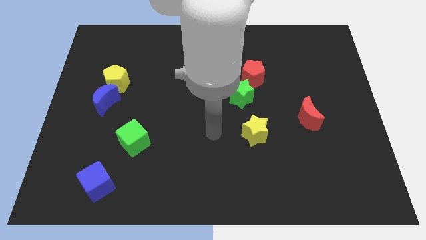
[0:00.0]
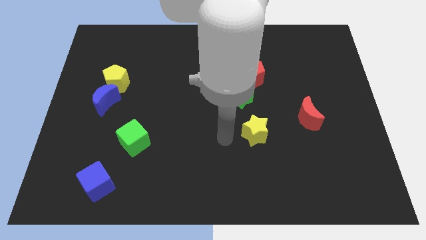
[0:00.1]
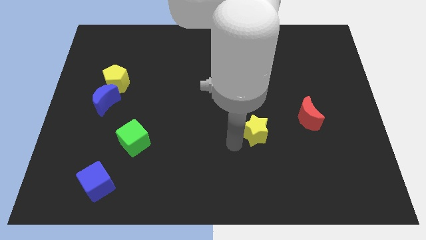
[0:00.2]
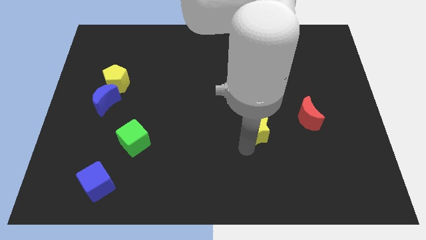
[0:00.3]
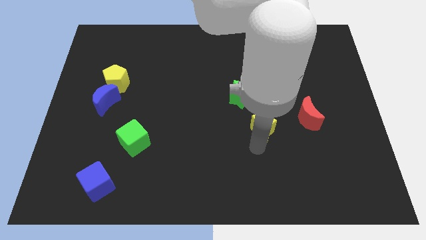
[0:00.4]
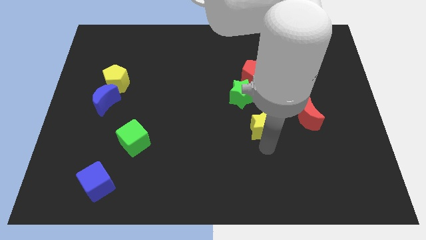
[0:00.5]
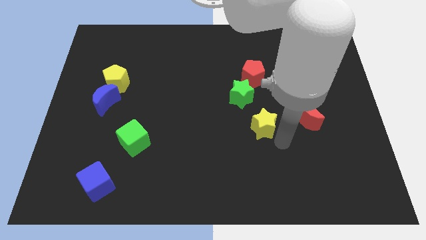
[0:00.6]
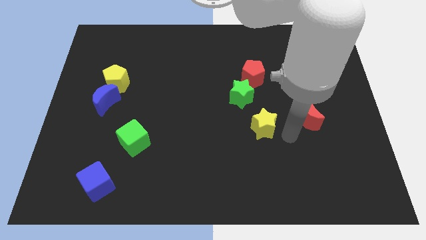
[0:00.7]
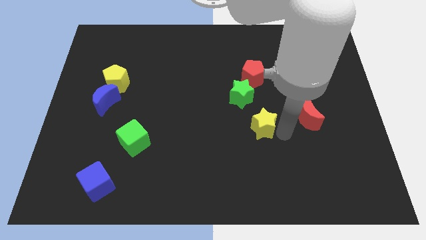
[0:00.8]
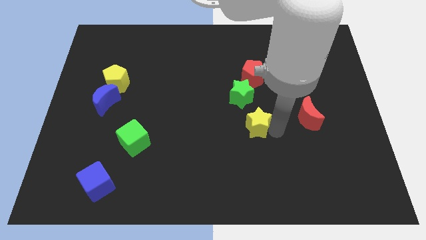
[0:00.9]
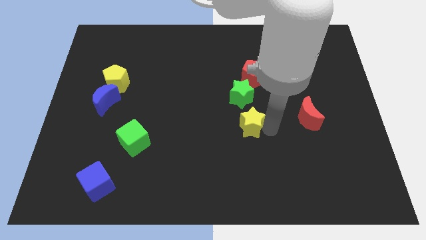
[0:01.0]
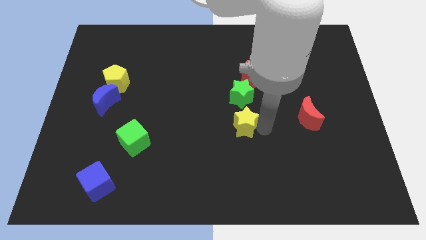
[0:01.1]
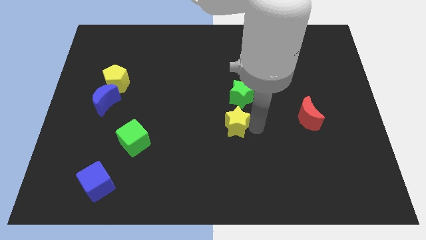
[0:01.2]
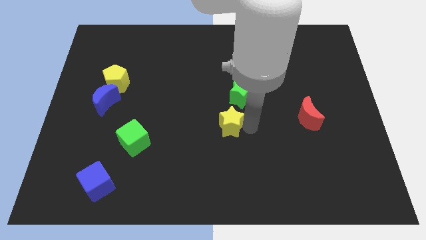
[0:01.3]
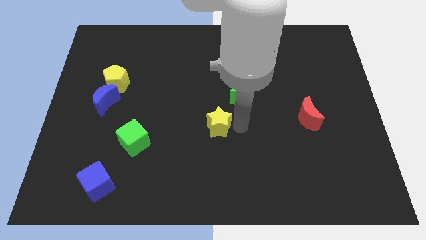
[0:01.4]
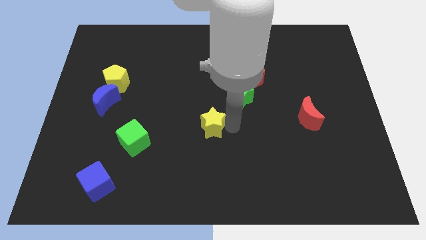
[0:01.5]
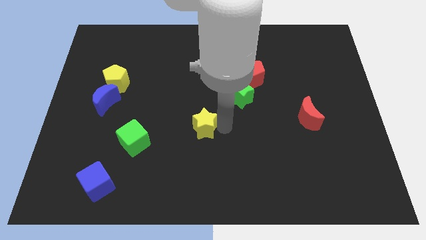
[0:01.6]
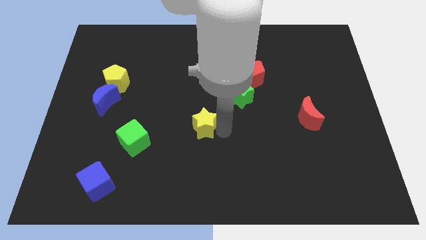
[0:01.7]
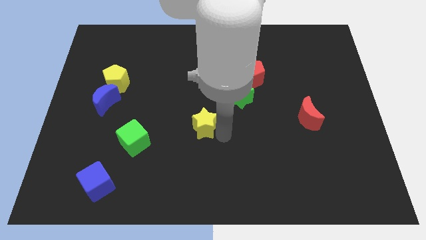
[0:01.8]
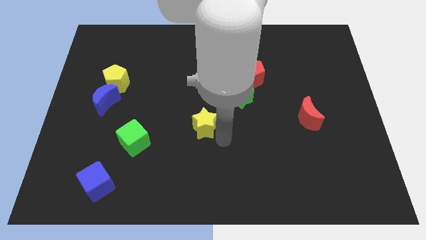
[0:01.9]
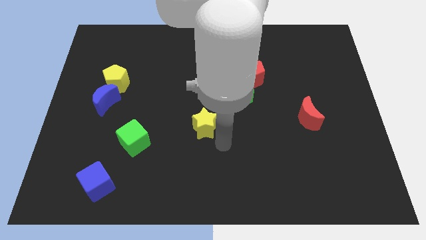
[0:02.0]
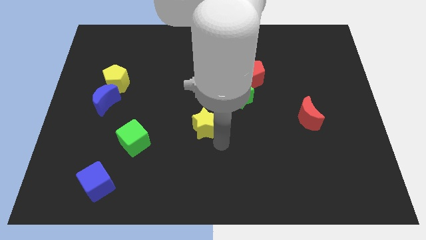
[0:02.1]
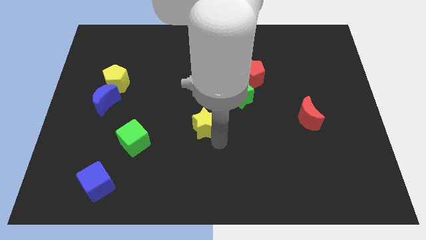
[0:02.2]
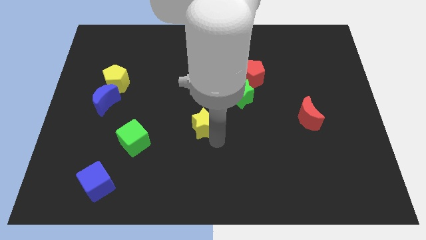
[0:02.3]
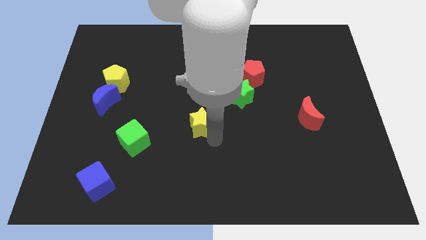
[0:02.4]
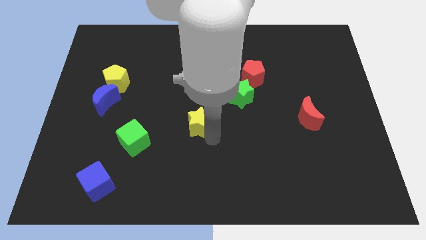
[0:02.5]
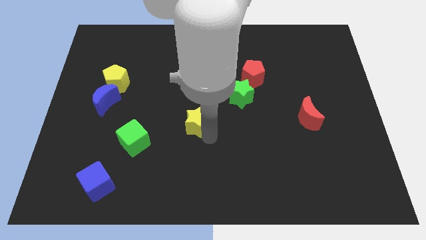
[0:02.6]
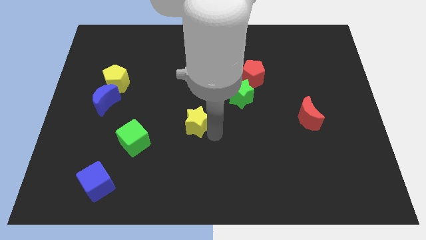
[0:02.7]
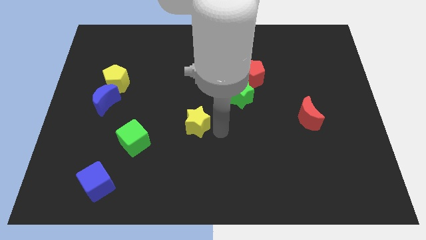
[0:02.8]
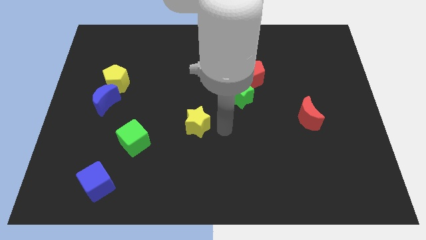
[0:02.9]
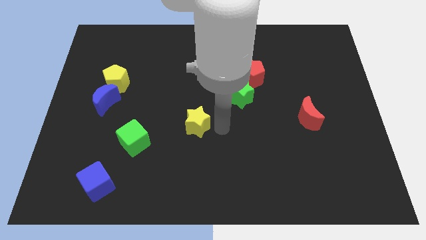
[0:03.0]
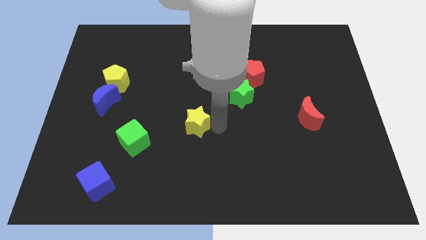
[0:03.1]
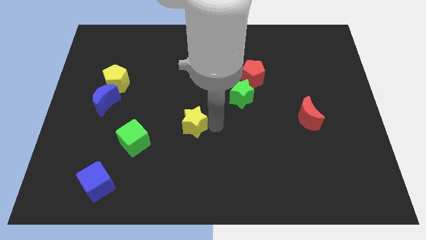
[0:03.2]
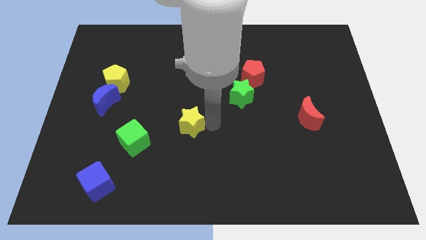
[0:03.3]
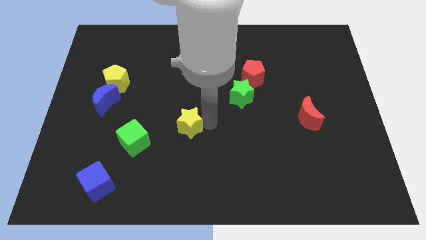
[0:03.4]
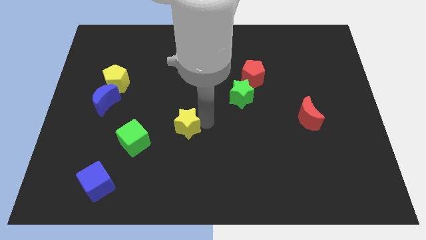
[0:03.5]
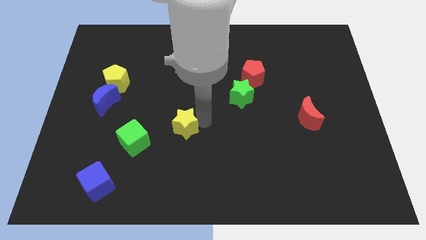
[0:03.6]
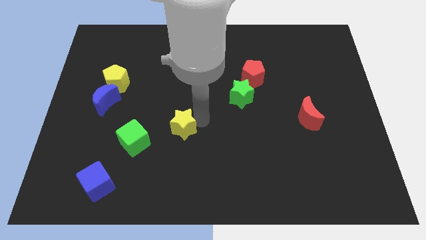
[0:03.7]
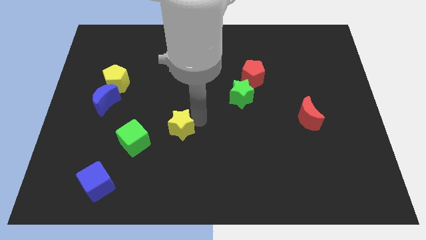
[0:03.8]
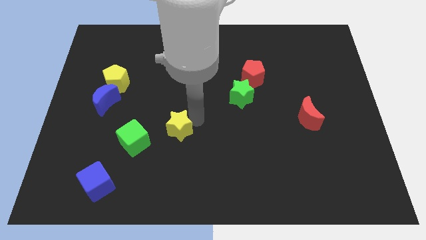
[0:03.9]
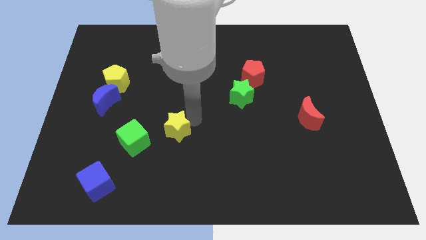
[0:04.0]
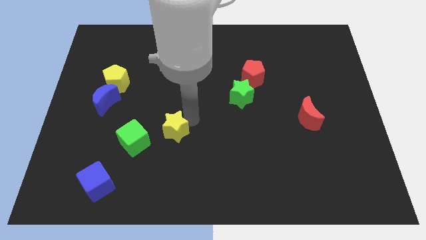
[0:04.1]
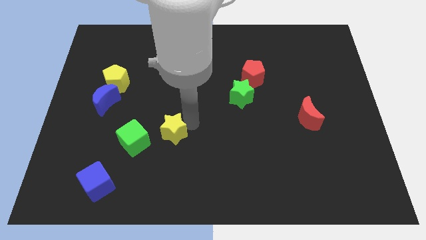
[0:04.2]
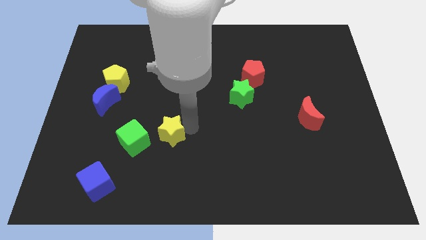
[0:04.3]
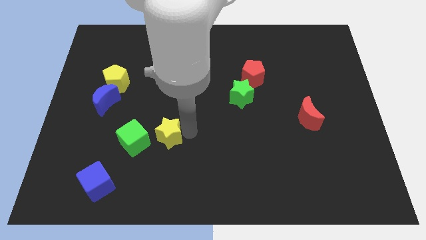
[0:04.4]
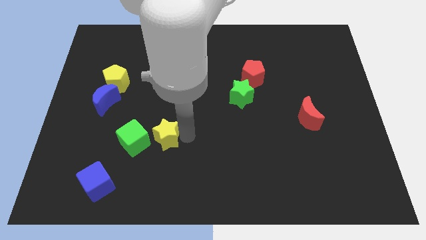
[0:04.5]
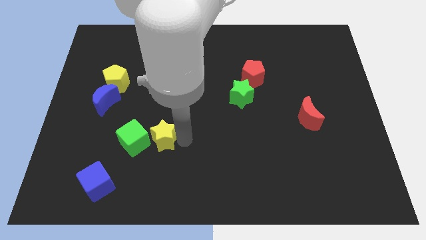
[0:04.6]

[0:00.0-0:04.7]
slide the yellow star to the left

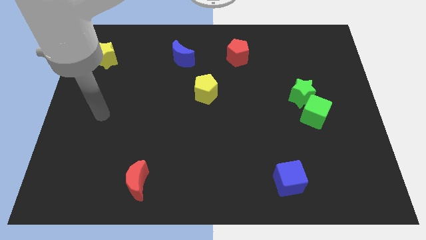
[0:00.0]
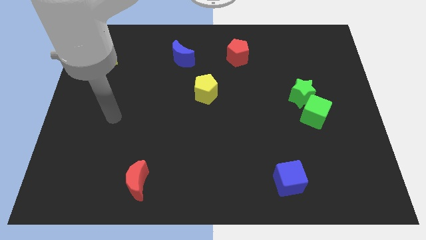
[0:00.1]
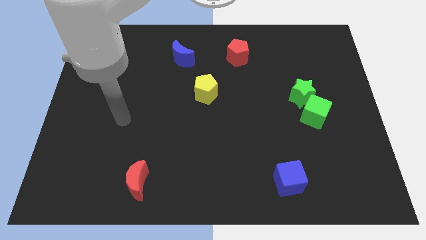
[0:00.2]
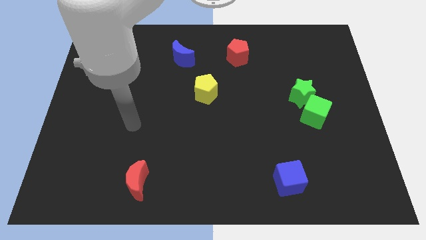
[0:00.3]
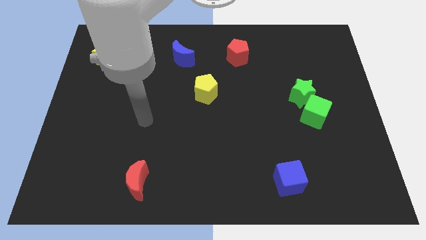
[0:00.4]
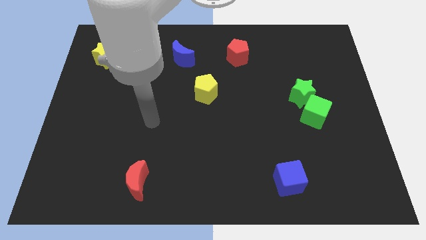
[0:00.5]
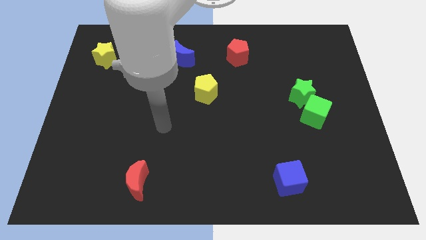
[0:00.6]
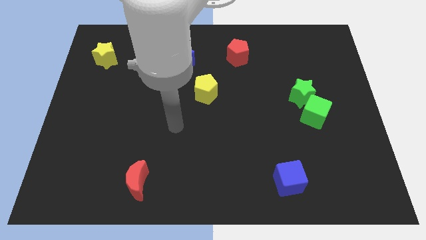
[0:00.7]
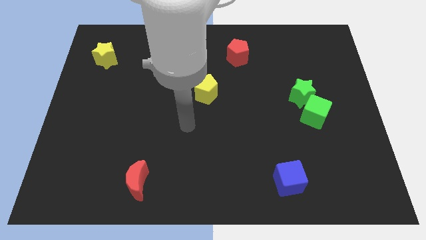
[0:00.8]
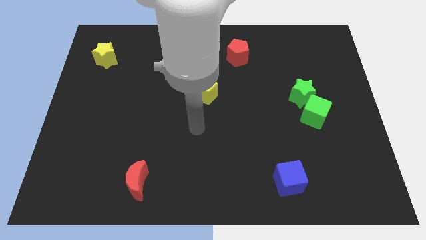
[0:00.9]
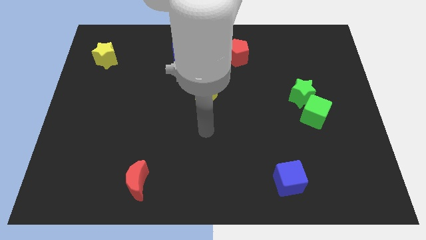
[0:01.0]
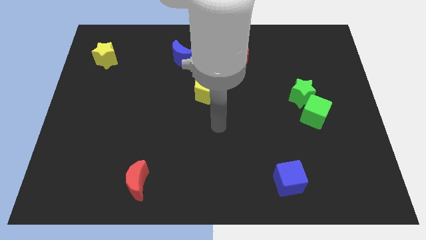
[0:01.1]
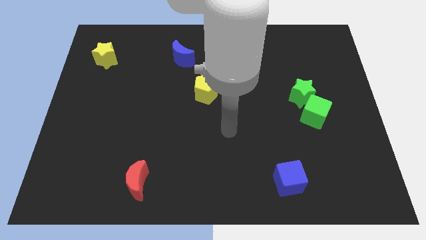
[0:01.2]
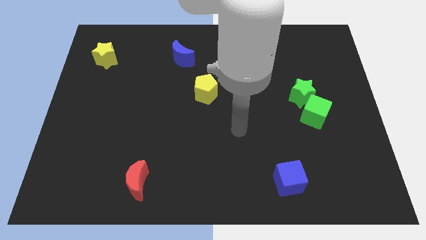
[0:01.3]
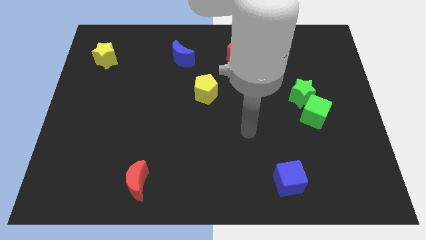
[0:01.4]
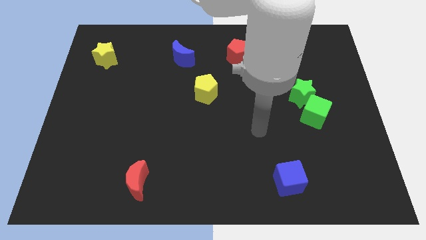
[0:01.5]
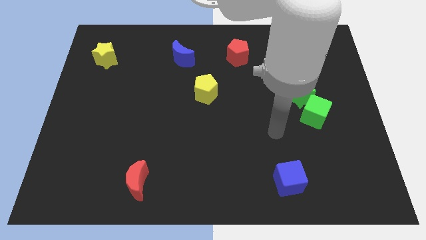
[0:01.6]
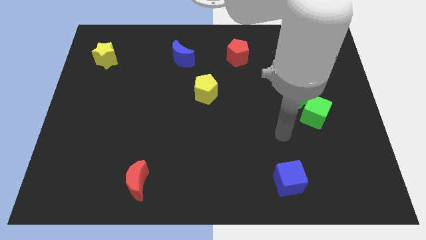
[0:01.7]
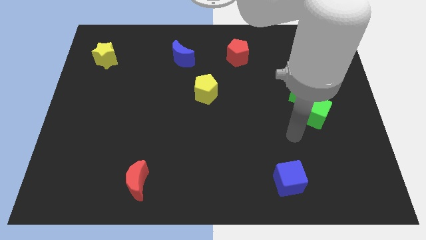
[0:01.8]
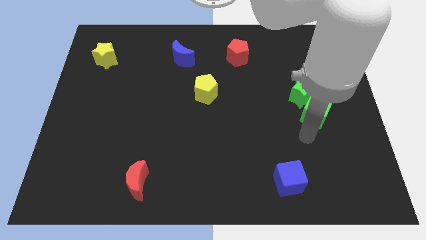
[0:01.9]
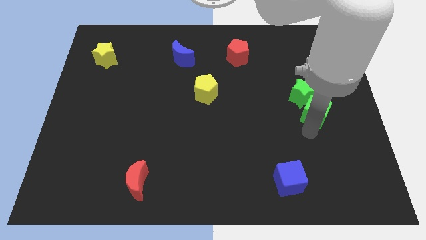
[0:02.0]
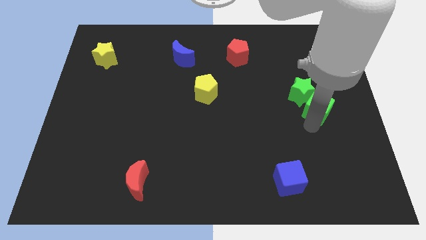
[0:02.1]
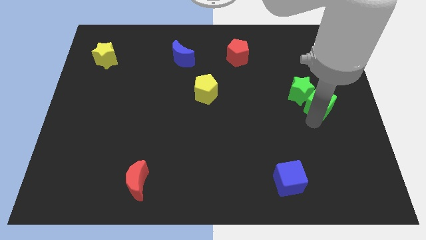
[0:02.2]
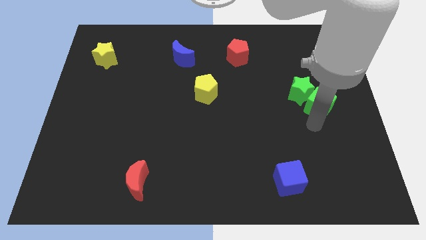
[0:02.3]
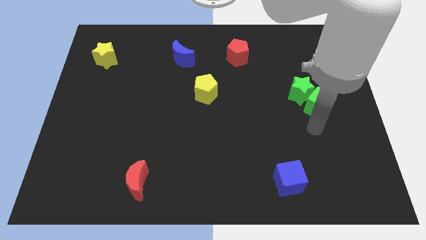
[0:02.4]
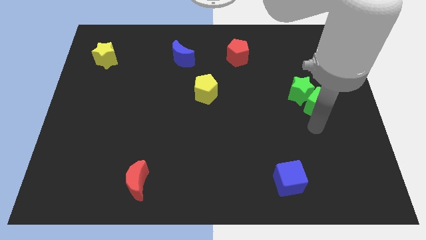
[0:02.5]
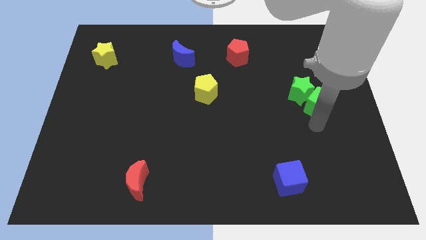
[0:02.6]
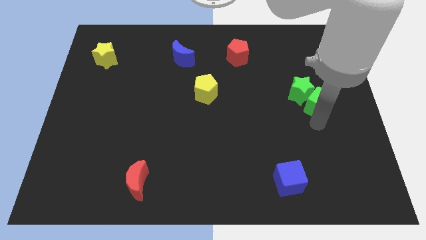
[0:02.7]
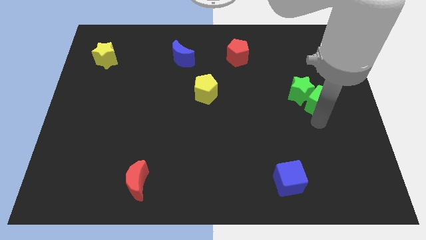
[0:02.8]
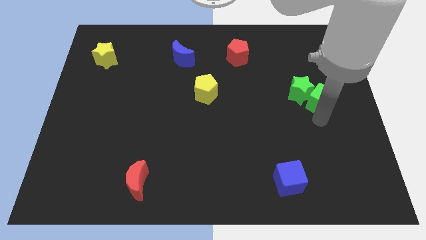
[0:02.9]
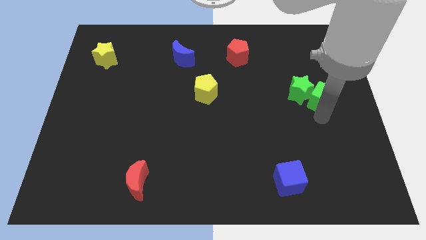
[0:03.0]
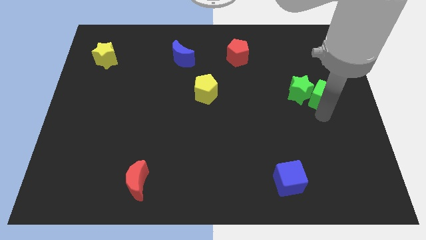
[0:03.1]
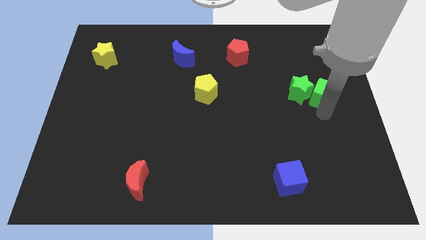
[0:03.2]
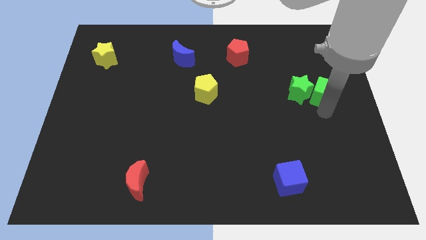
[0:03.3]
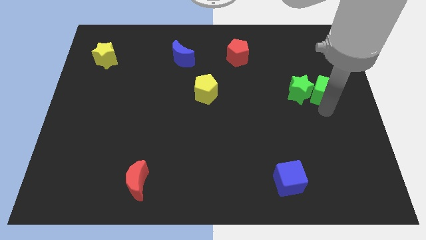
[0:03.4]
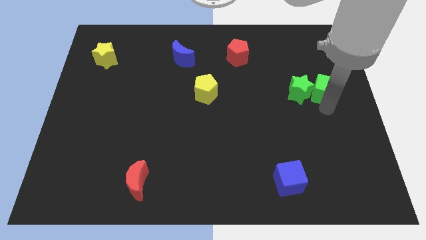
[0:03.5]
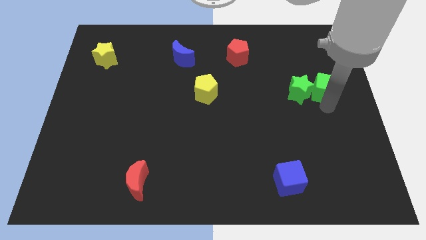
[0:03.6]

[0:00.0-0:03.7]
slide the green cube a little bit upwards
